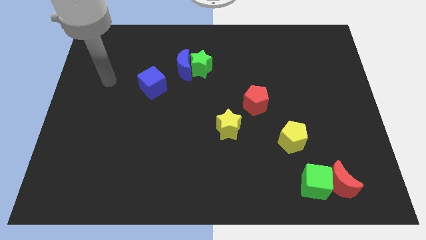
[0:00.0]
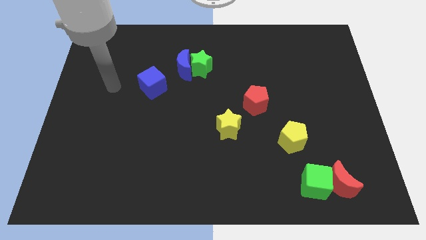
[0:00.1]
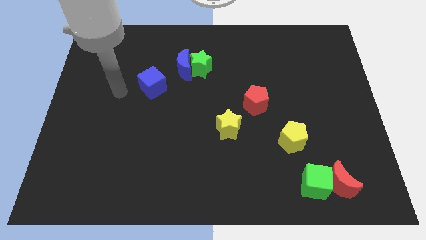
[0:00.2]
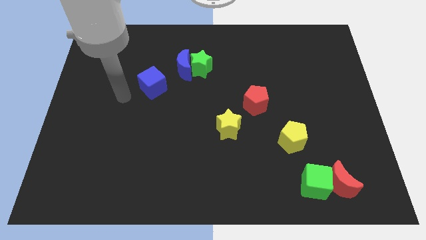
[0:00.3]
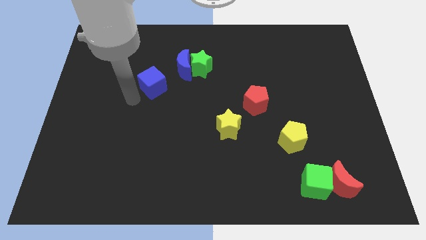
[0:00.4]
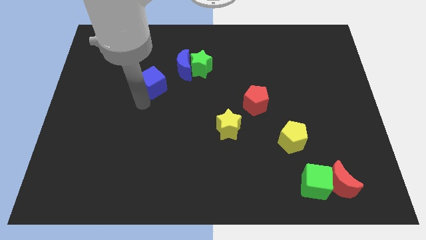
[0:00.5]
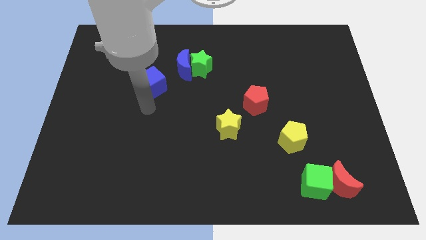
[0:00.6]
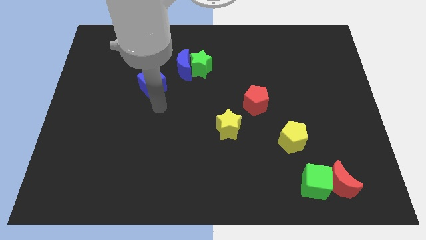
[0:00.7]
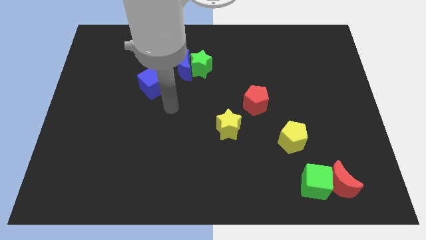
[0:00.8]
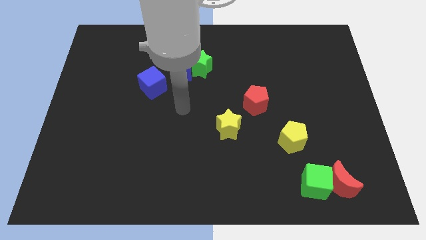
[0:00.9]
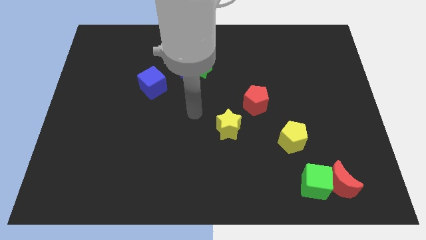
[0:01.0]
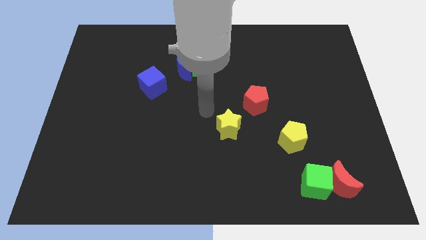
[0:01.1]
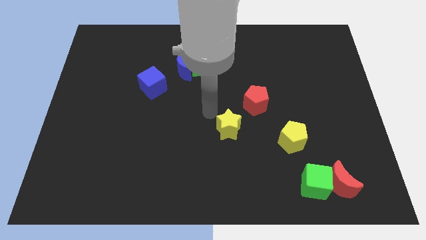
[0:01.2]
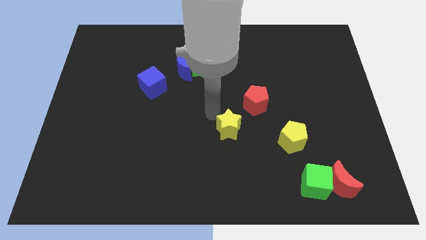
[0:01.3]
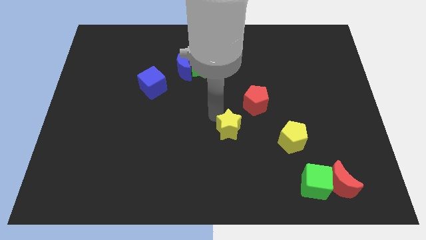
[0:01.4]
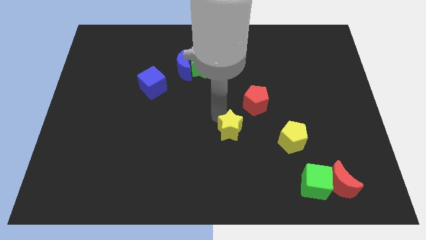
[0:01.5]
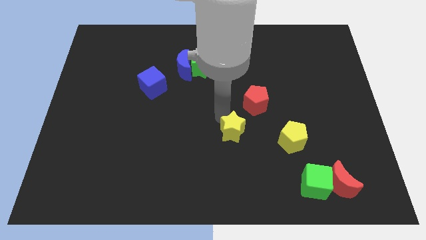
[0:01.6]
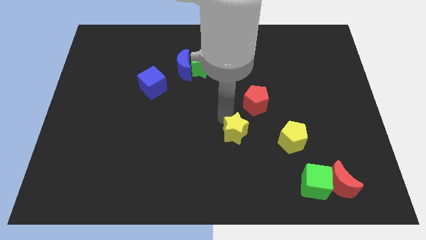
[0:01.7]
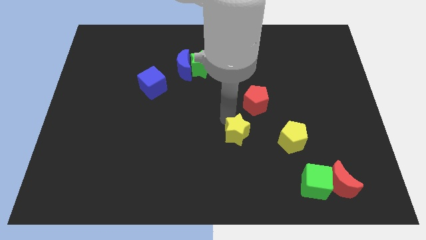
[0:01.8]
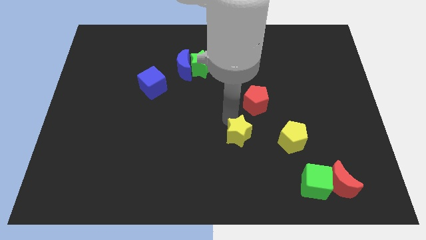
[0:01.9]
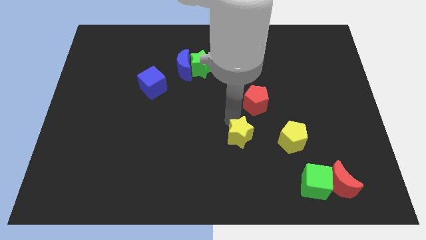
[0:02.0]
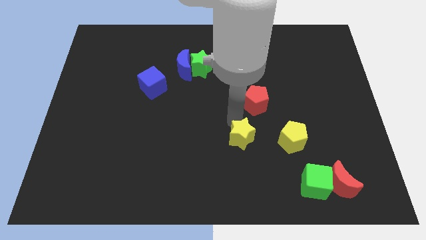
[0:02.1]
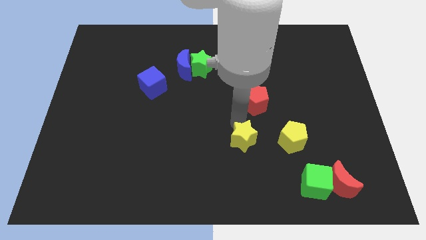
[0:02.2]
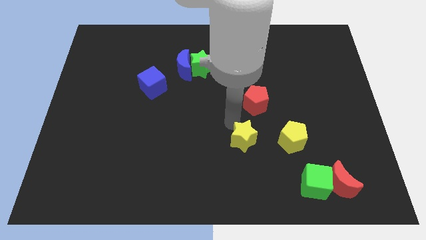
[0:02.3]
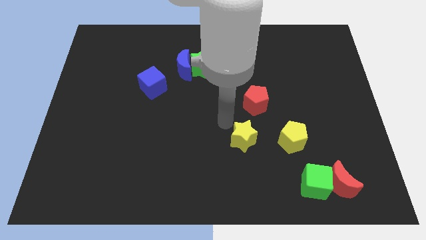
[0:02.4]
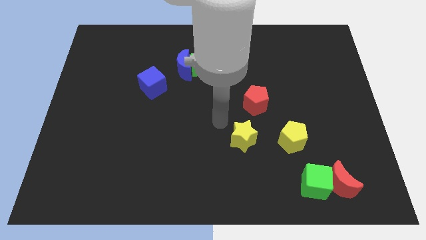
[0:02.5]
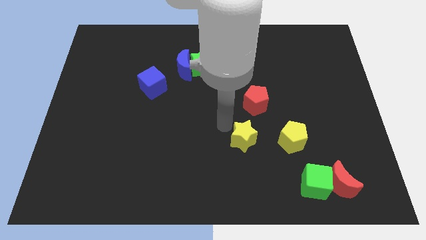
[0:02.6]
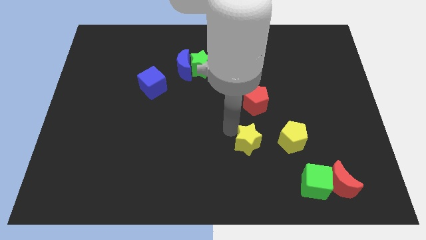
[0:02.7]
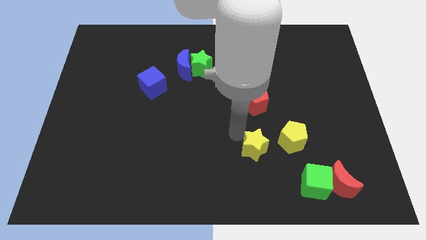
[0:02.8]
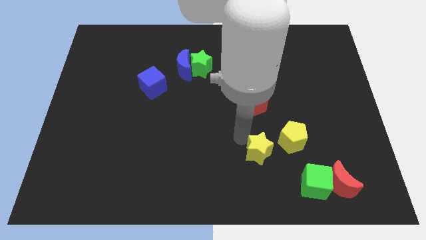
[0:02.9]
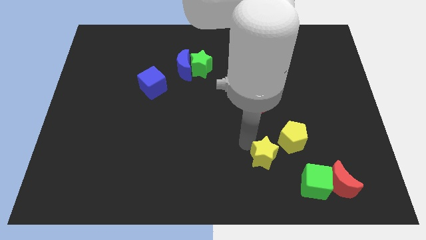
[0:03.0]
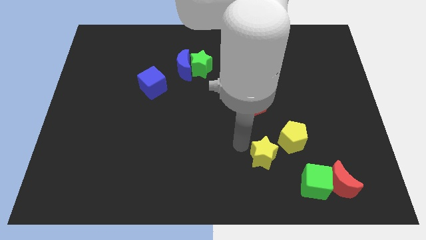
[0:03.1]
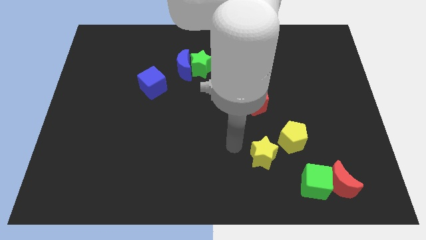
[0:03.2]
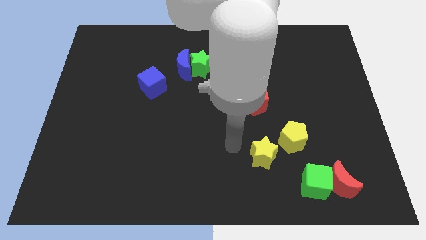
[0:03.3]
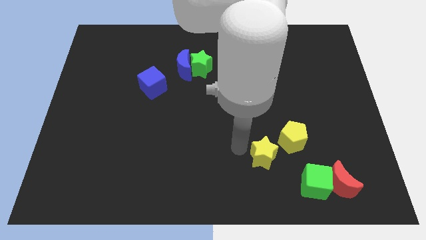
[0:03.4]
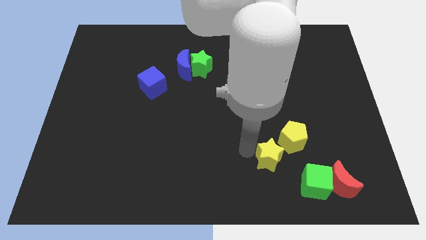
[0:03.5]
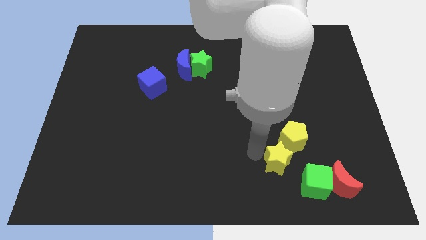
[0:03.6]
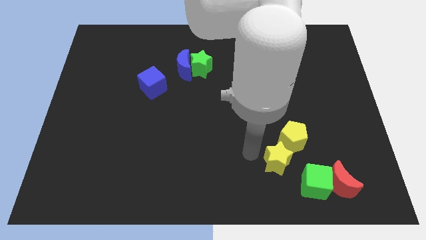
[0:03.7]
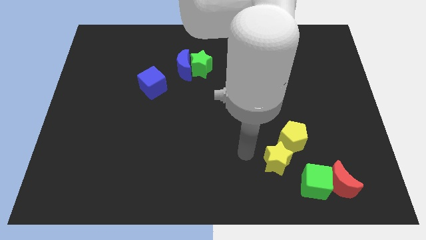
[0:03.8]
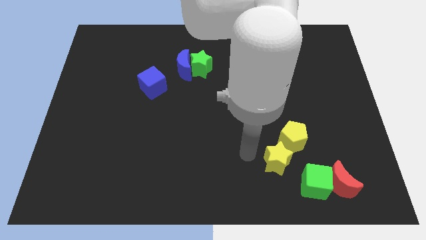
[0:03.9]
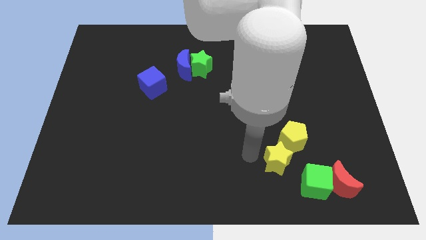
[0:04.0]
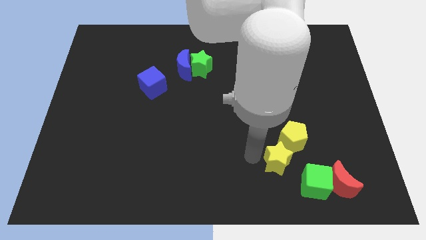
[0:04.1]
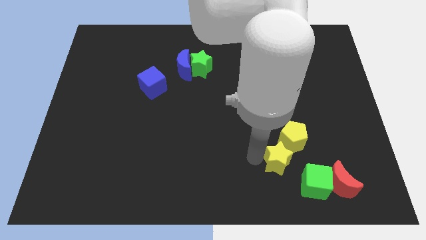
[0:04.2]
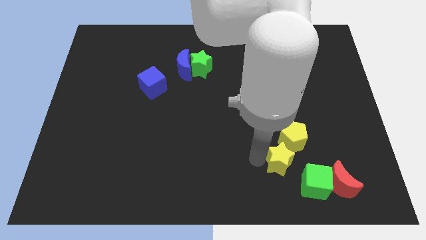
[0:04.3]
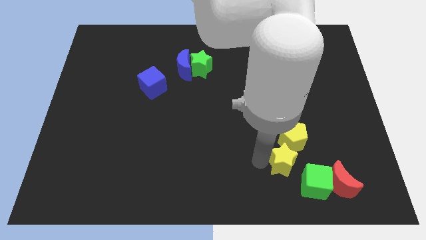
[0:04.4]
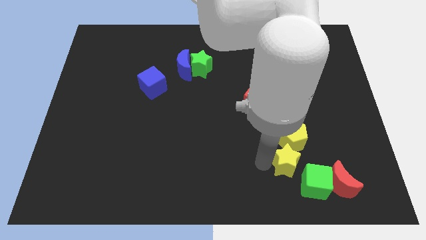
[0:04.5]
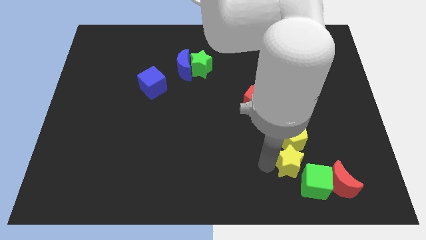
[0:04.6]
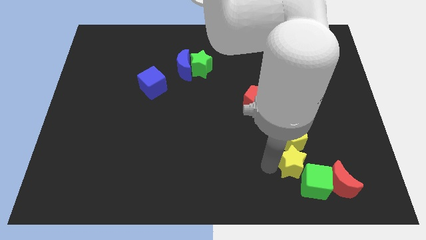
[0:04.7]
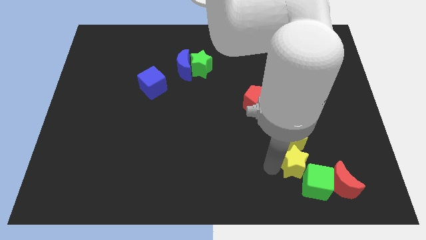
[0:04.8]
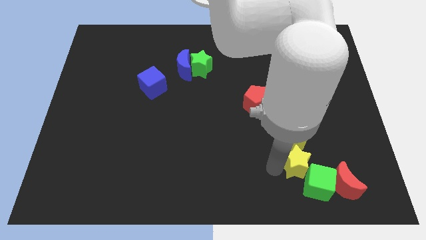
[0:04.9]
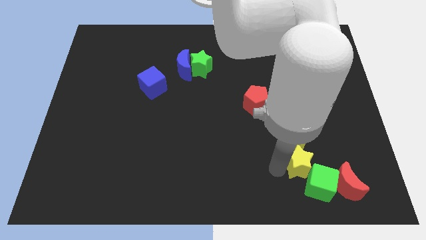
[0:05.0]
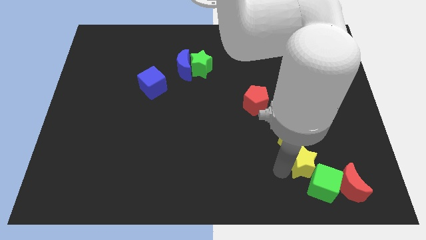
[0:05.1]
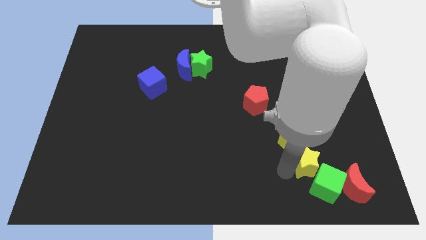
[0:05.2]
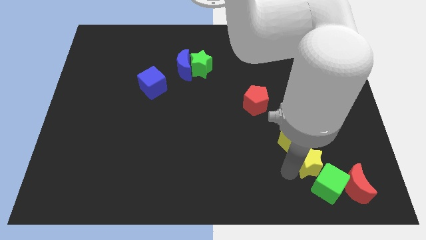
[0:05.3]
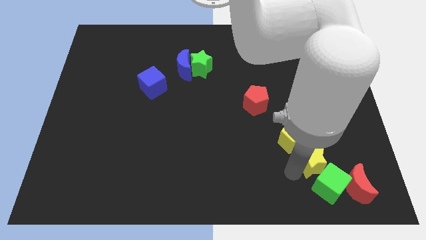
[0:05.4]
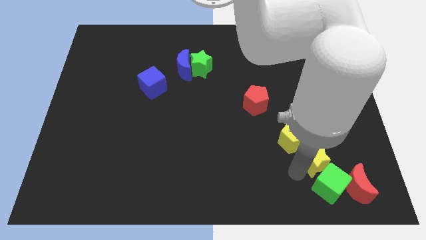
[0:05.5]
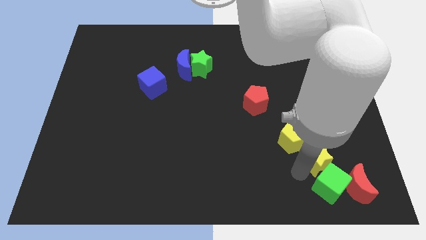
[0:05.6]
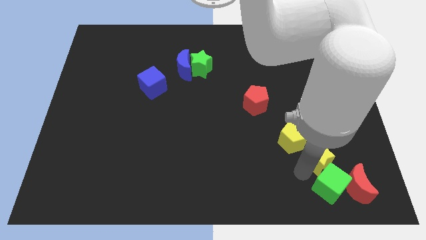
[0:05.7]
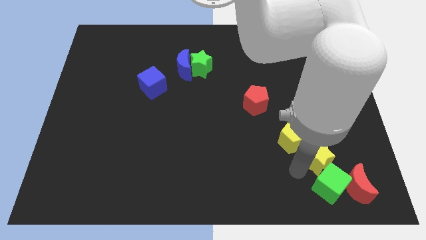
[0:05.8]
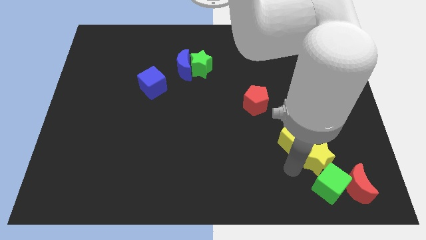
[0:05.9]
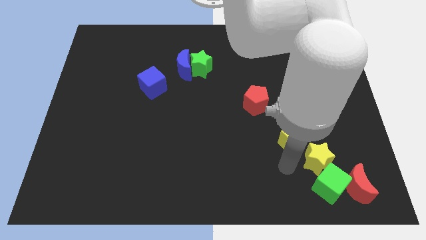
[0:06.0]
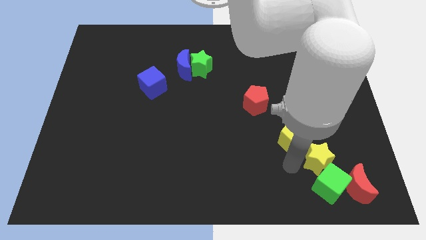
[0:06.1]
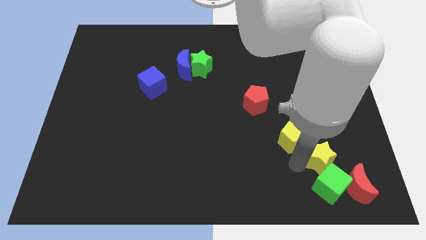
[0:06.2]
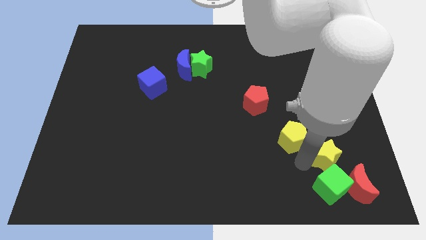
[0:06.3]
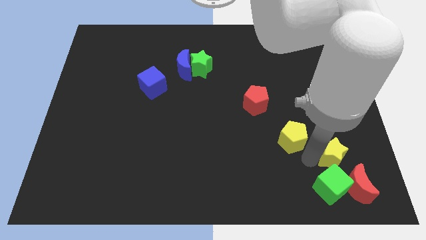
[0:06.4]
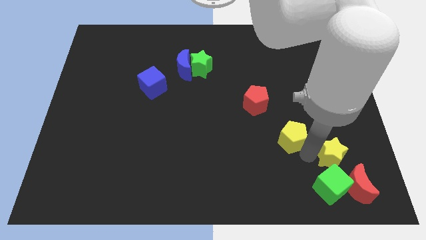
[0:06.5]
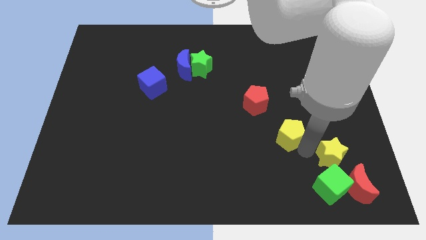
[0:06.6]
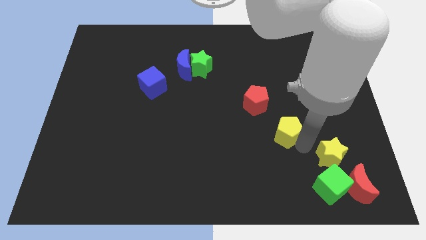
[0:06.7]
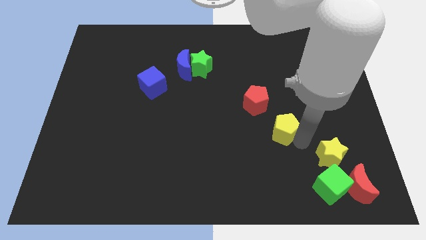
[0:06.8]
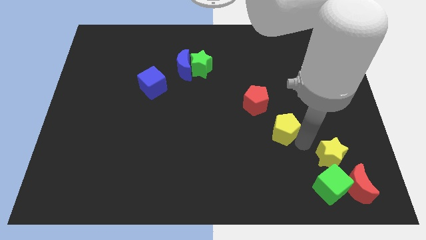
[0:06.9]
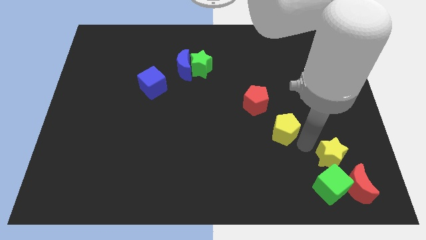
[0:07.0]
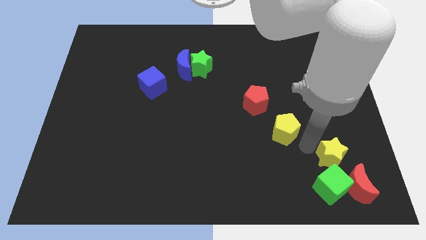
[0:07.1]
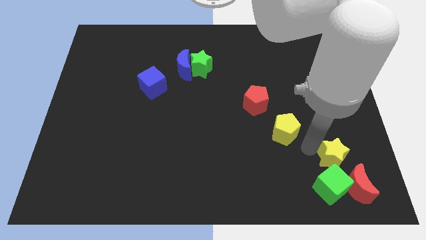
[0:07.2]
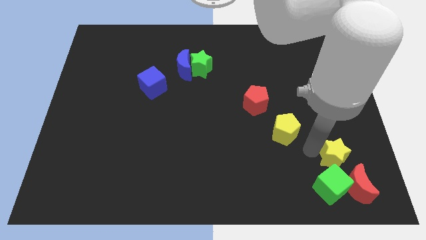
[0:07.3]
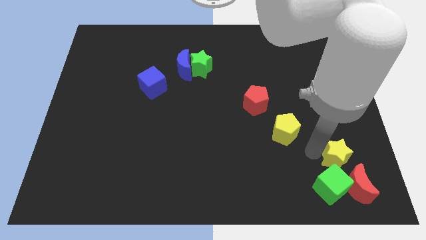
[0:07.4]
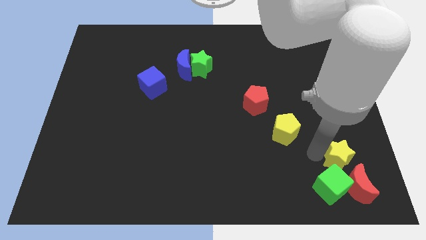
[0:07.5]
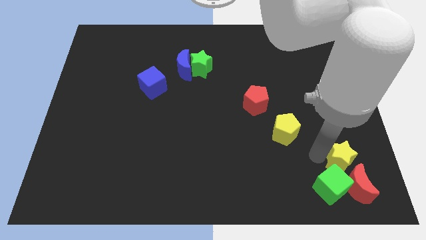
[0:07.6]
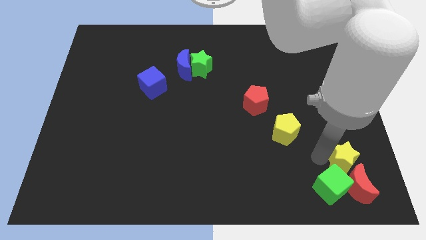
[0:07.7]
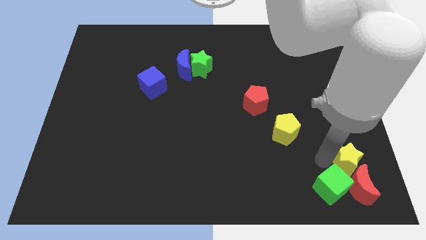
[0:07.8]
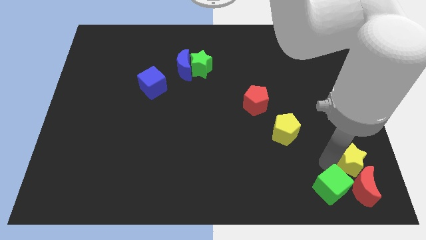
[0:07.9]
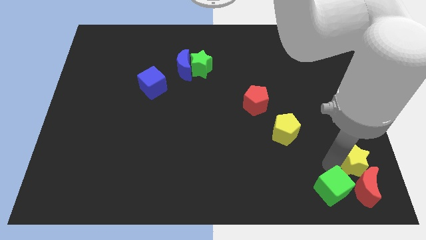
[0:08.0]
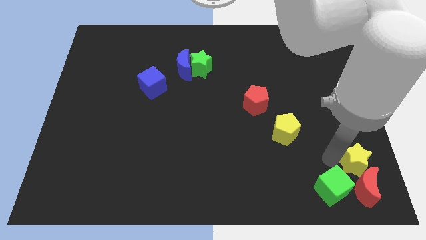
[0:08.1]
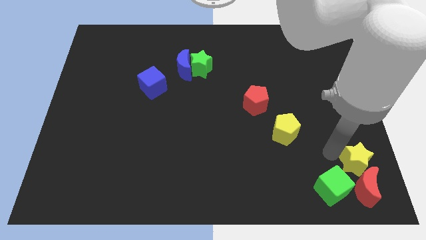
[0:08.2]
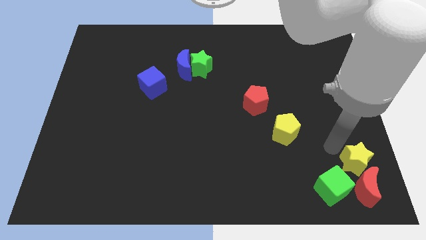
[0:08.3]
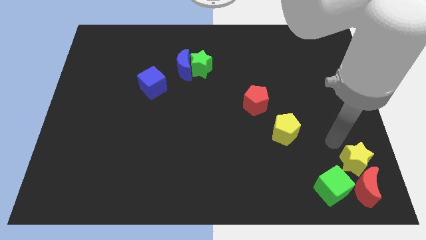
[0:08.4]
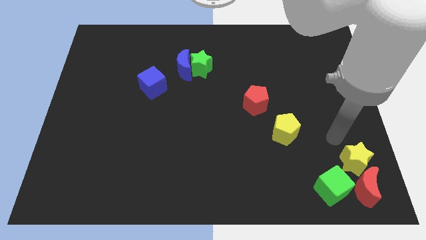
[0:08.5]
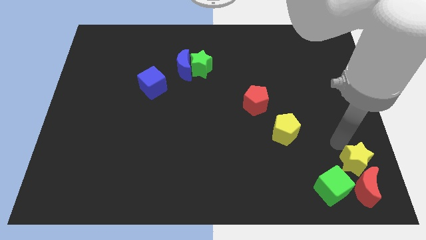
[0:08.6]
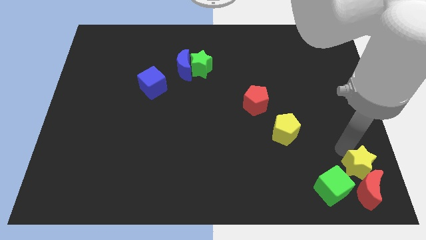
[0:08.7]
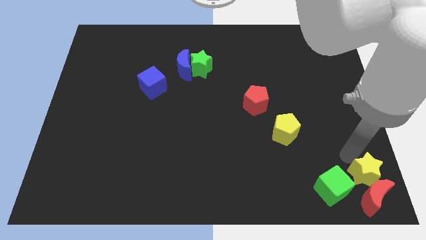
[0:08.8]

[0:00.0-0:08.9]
move the yellow star to the bottom right
